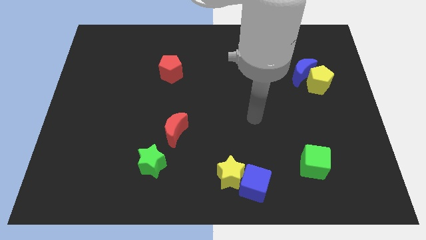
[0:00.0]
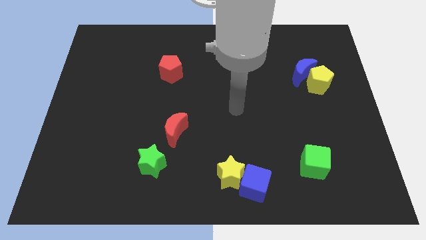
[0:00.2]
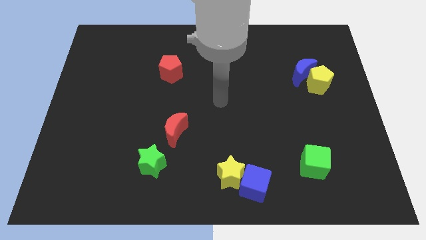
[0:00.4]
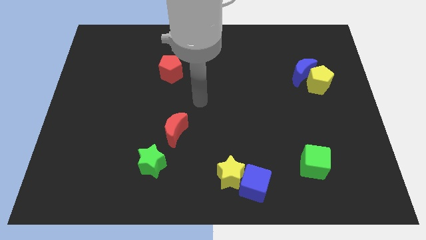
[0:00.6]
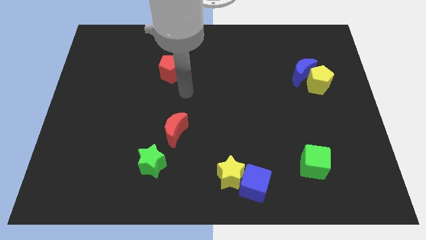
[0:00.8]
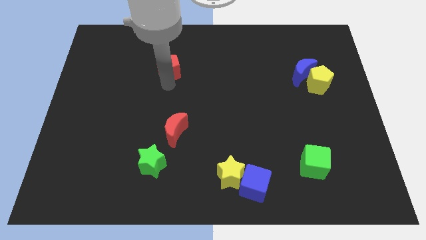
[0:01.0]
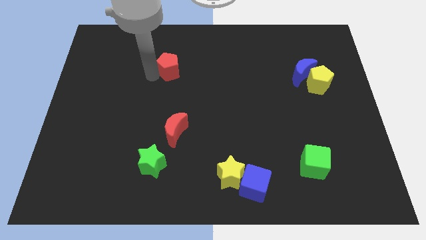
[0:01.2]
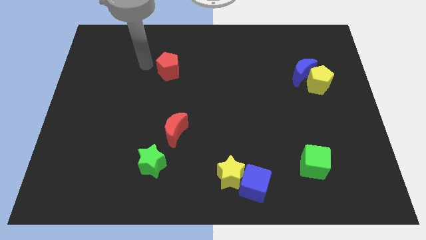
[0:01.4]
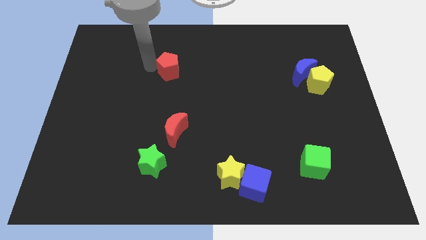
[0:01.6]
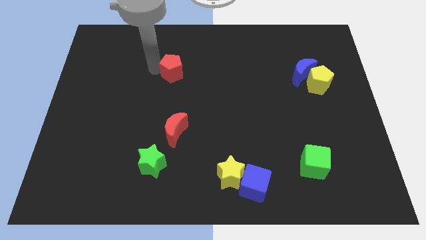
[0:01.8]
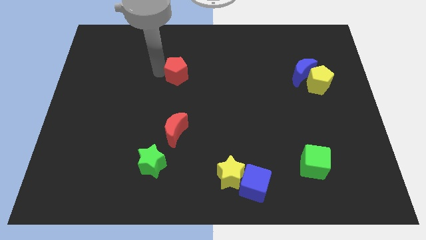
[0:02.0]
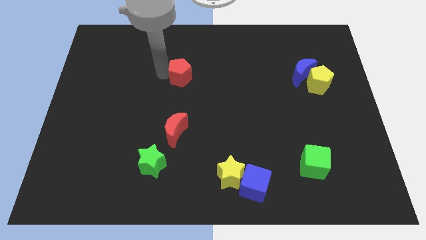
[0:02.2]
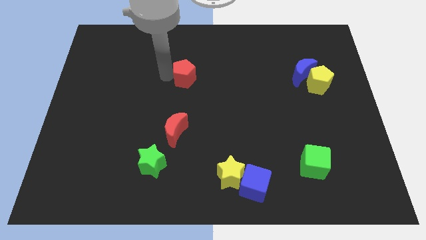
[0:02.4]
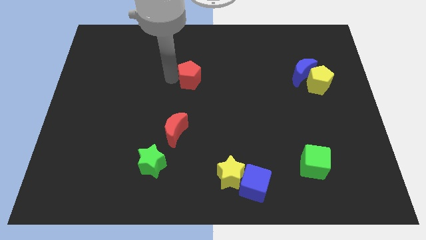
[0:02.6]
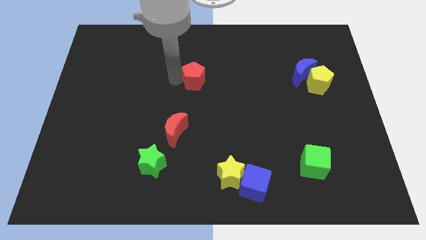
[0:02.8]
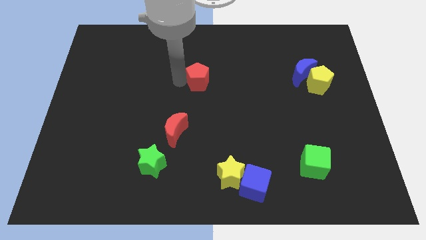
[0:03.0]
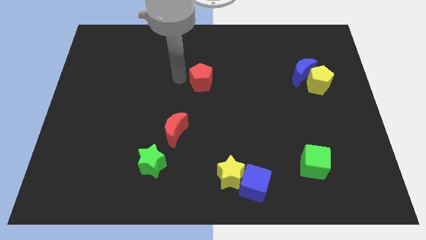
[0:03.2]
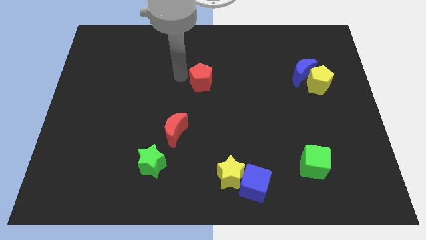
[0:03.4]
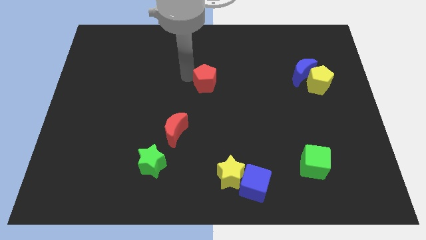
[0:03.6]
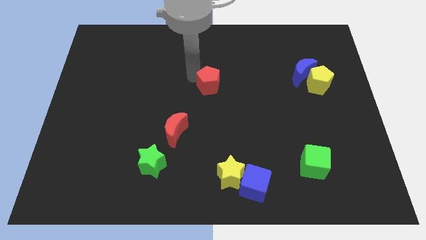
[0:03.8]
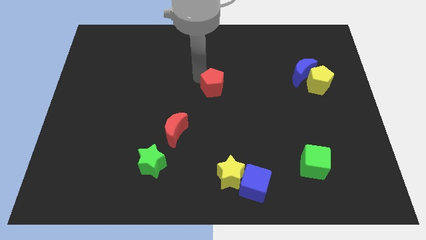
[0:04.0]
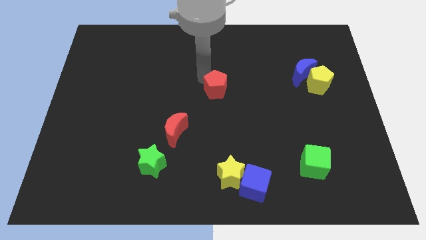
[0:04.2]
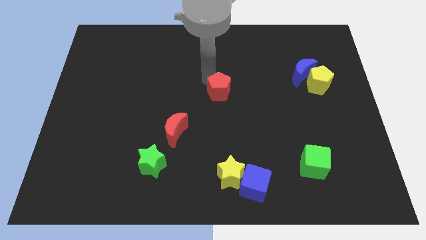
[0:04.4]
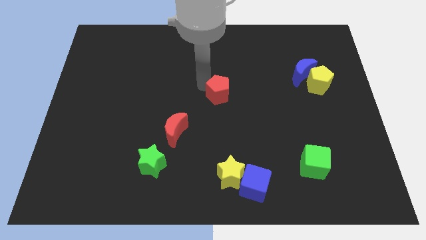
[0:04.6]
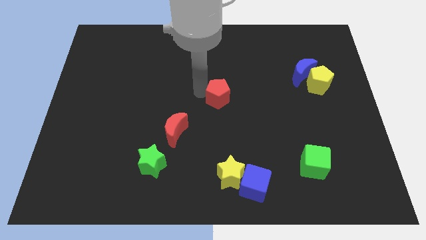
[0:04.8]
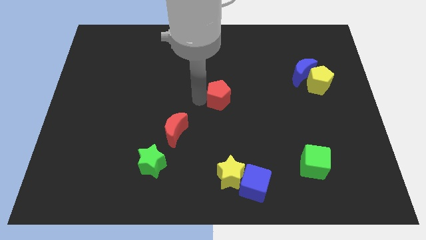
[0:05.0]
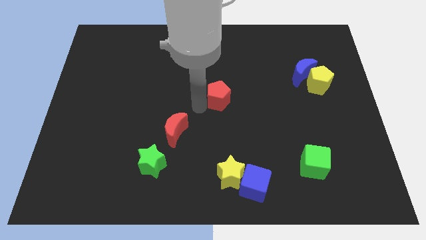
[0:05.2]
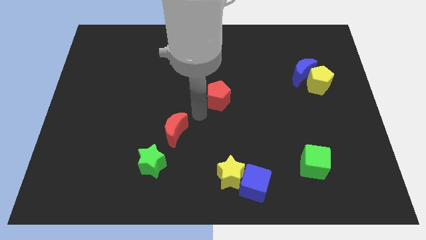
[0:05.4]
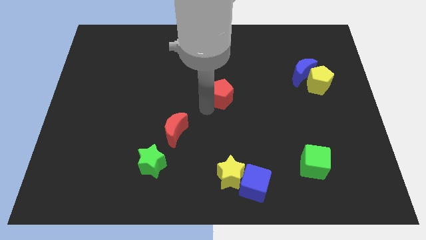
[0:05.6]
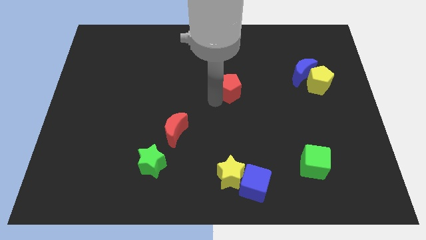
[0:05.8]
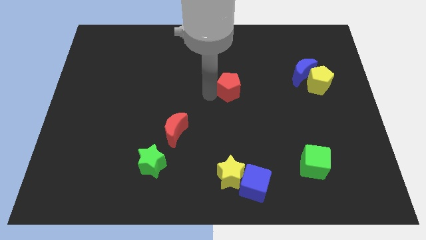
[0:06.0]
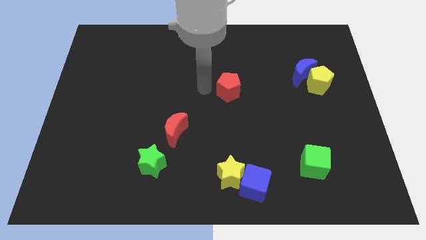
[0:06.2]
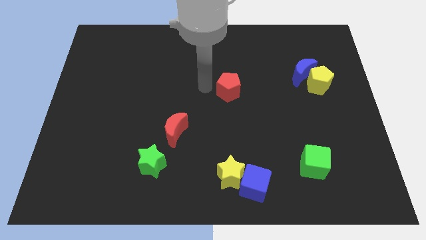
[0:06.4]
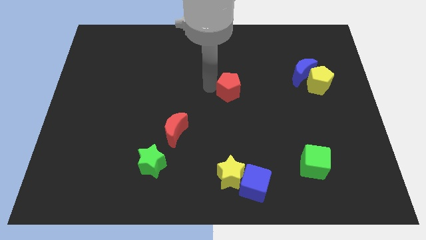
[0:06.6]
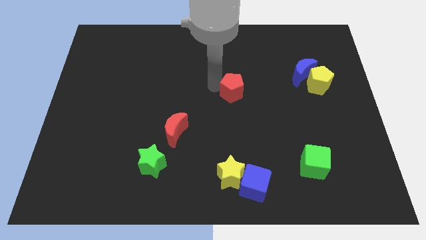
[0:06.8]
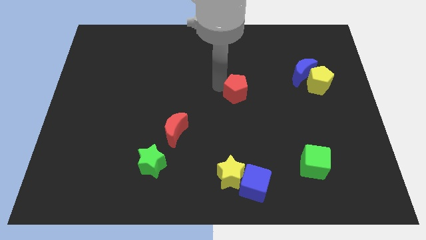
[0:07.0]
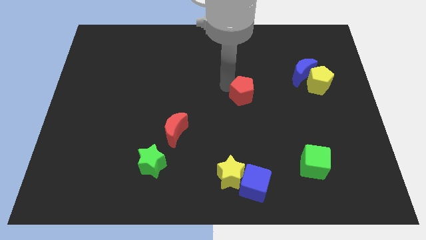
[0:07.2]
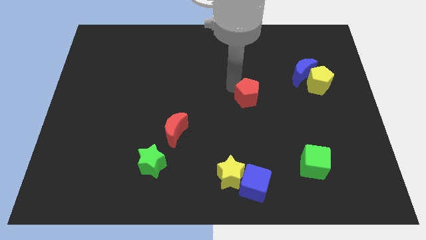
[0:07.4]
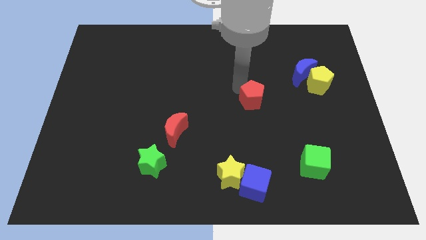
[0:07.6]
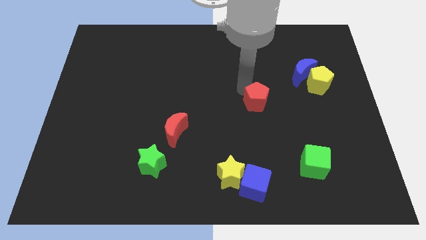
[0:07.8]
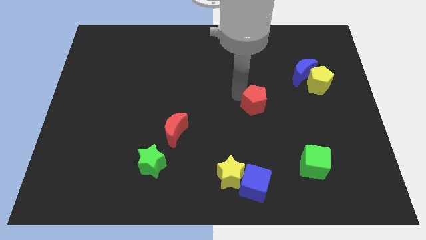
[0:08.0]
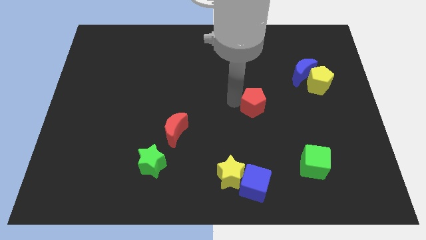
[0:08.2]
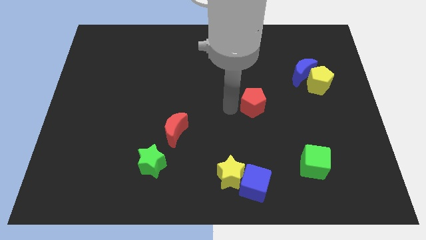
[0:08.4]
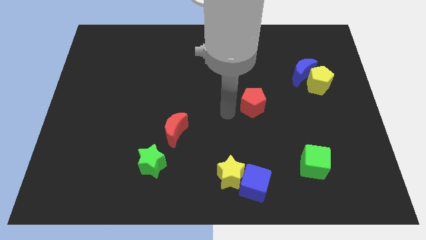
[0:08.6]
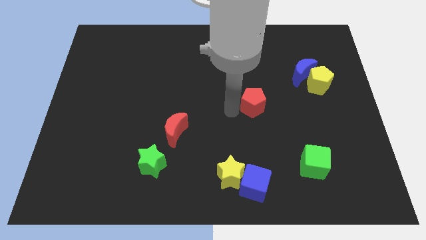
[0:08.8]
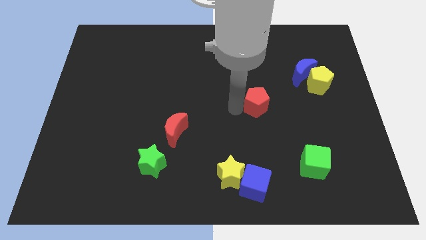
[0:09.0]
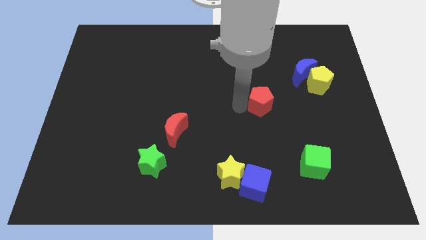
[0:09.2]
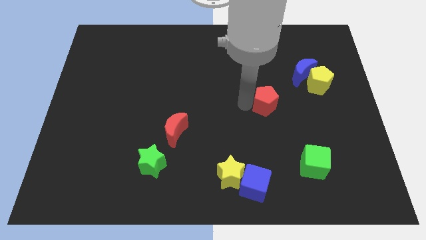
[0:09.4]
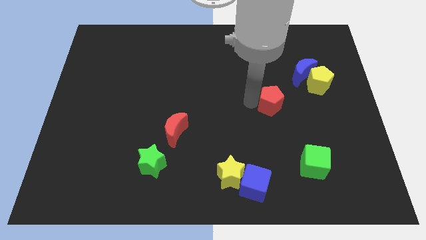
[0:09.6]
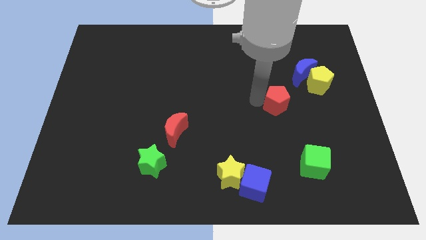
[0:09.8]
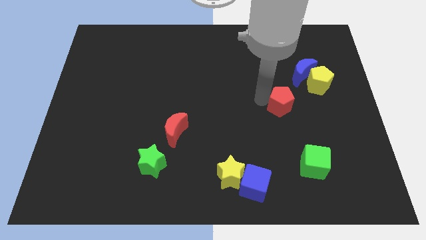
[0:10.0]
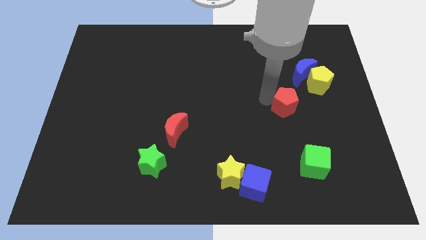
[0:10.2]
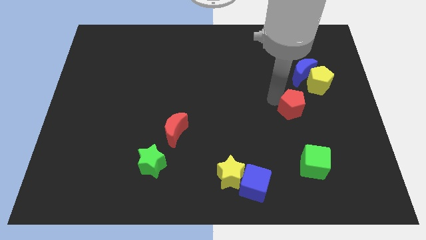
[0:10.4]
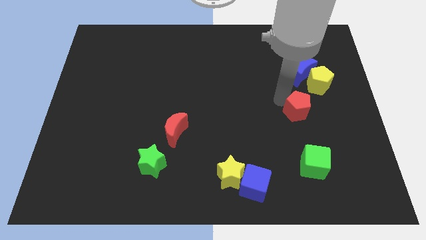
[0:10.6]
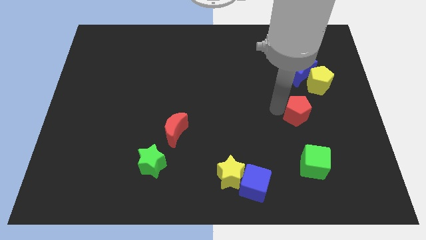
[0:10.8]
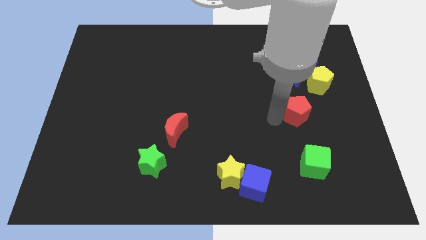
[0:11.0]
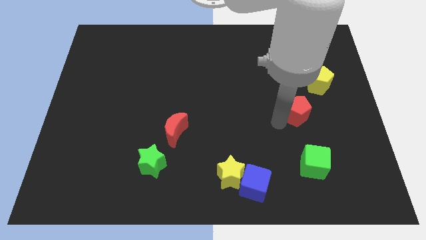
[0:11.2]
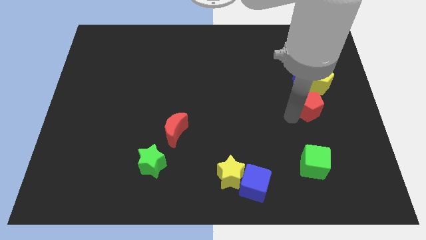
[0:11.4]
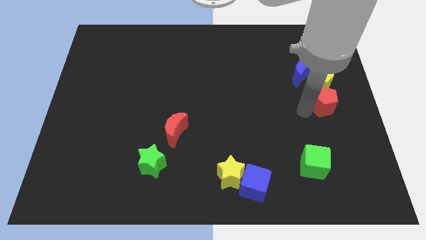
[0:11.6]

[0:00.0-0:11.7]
slide the red pentagon to the right side
